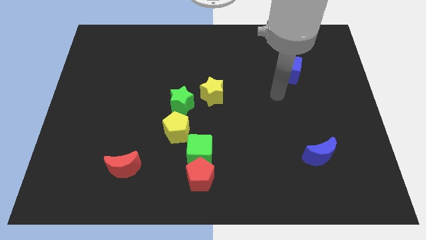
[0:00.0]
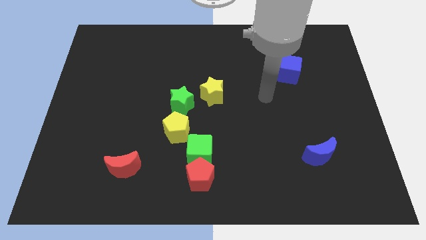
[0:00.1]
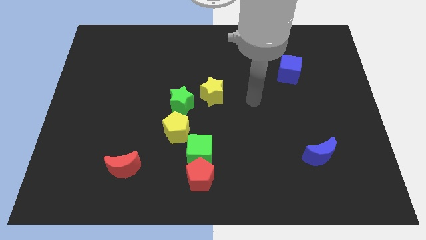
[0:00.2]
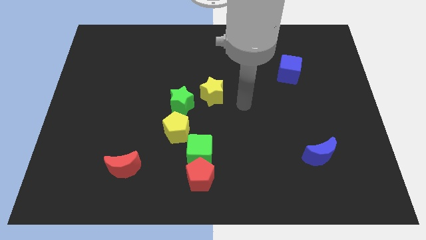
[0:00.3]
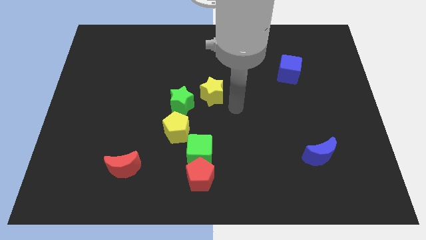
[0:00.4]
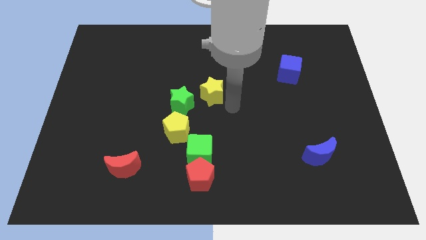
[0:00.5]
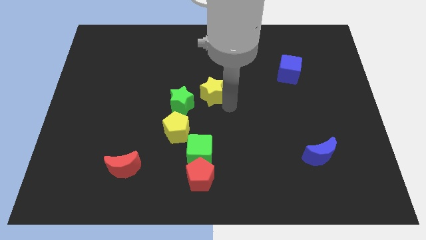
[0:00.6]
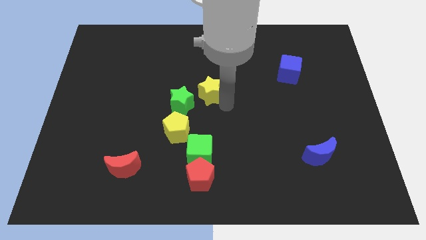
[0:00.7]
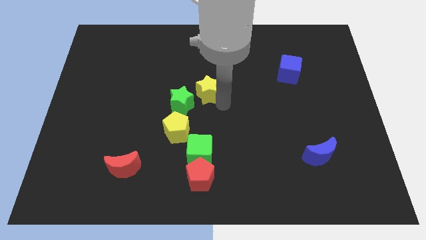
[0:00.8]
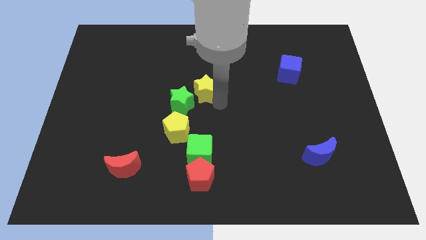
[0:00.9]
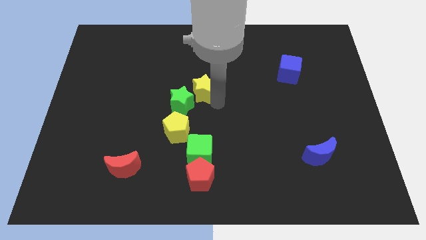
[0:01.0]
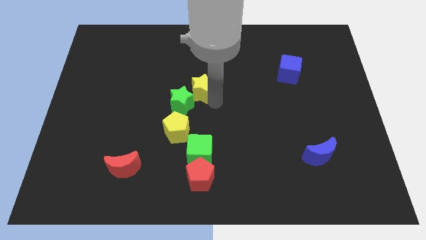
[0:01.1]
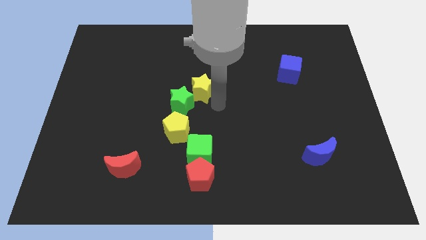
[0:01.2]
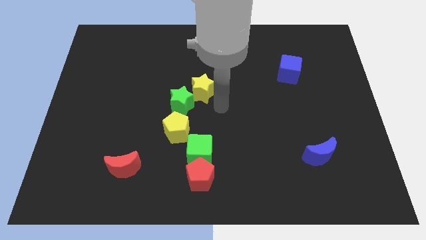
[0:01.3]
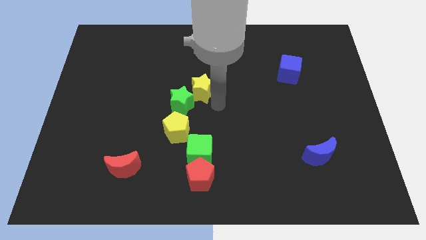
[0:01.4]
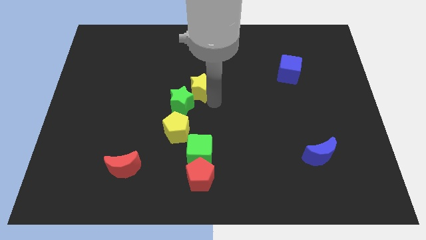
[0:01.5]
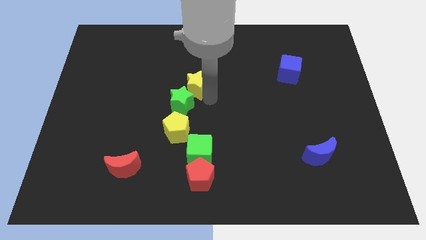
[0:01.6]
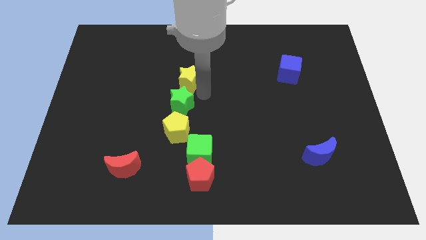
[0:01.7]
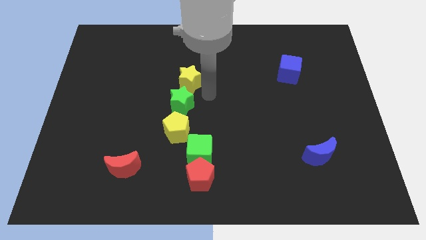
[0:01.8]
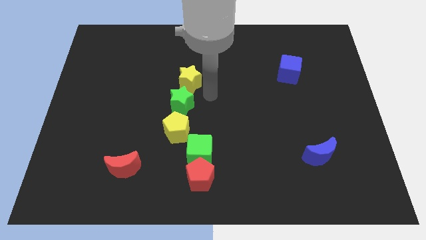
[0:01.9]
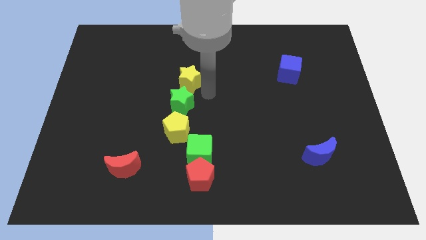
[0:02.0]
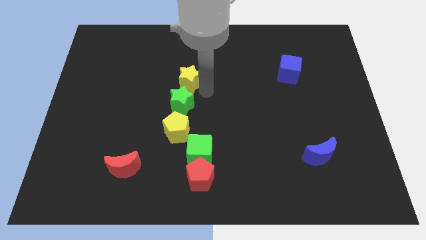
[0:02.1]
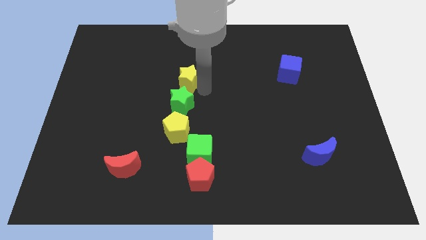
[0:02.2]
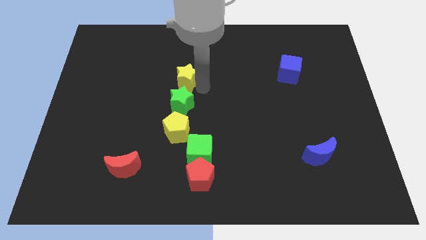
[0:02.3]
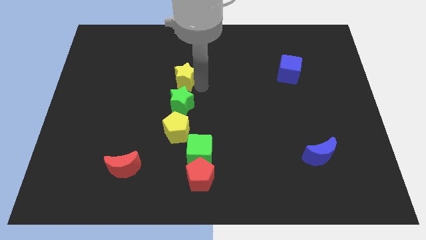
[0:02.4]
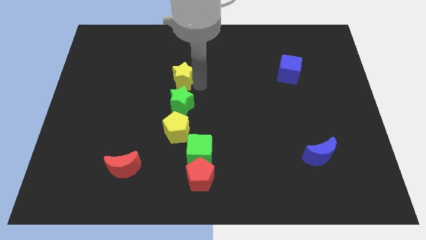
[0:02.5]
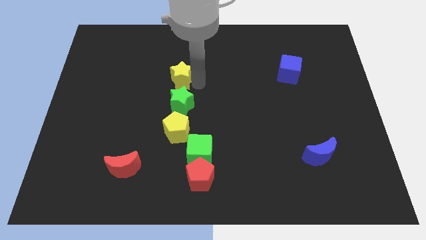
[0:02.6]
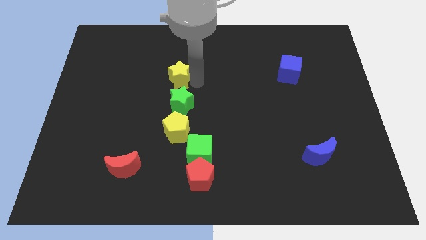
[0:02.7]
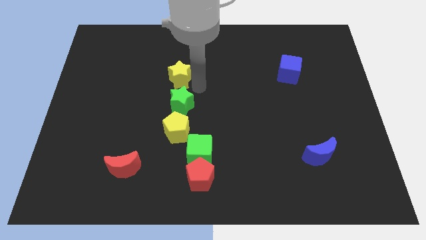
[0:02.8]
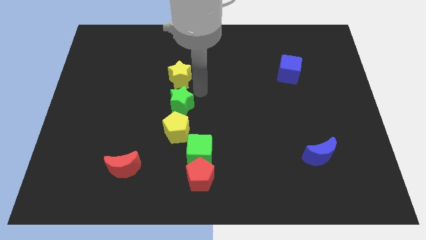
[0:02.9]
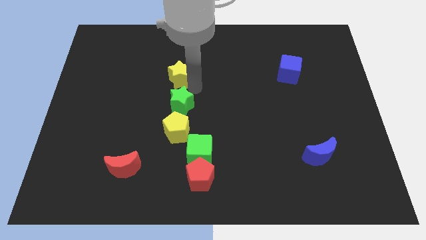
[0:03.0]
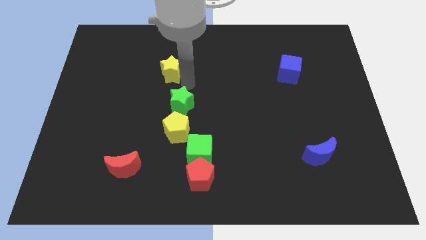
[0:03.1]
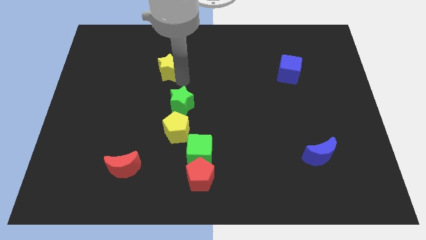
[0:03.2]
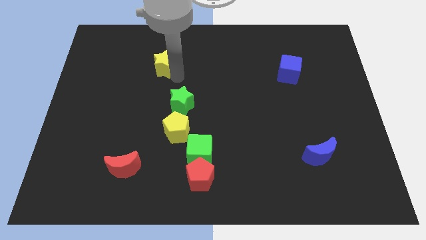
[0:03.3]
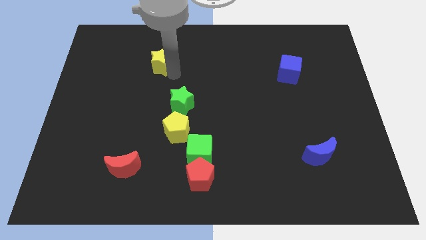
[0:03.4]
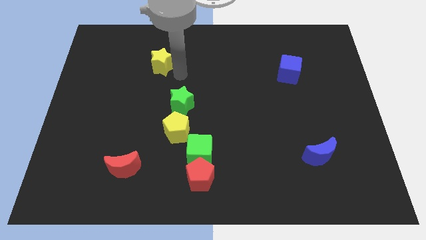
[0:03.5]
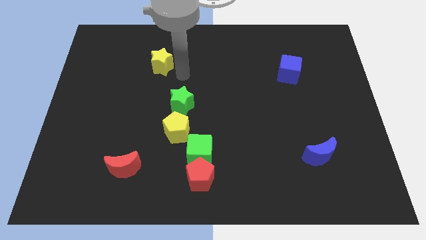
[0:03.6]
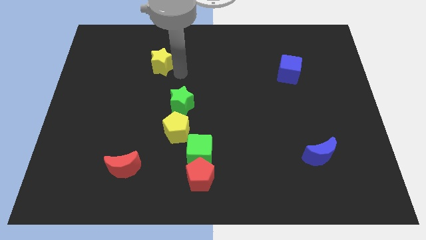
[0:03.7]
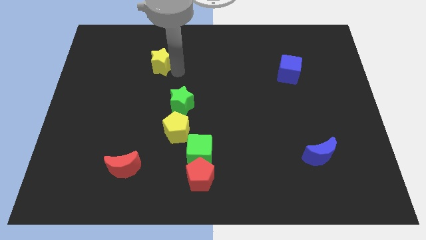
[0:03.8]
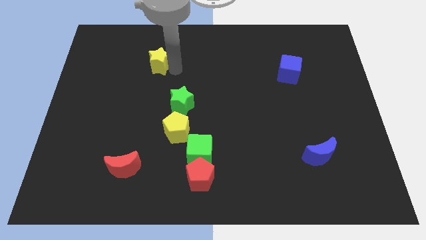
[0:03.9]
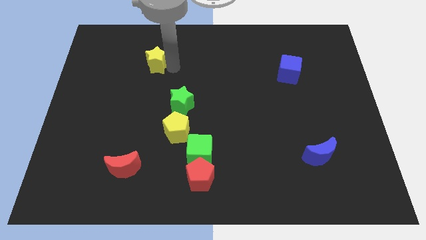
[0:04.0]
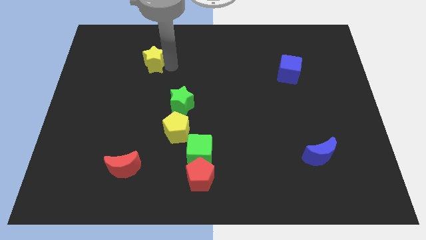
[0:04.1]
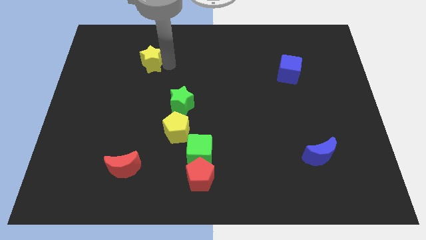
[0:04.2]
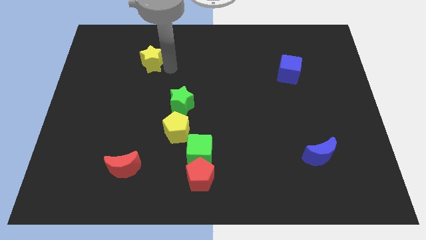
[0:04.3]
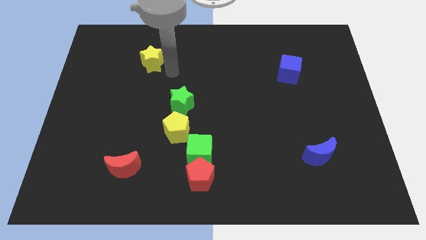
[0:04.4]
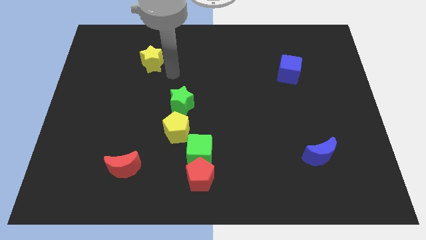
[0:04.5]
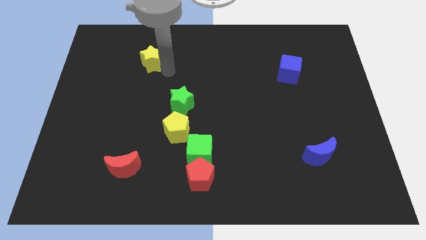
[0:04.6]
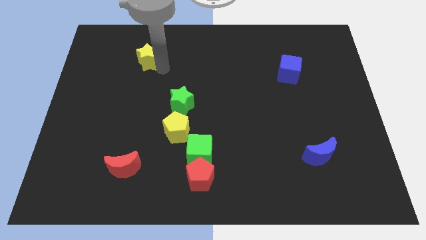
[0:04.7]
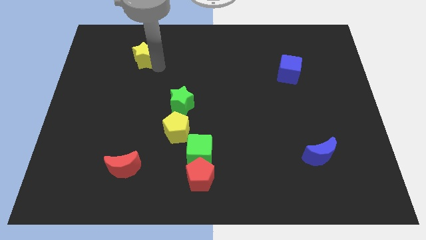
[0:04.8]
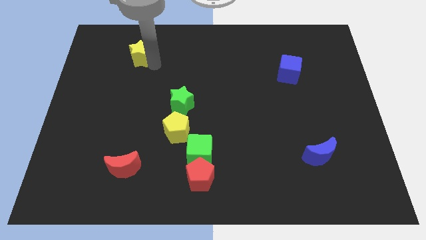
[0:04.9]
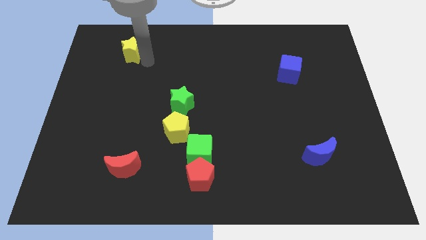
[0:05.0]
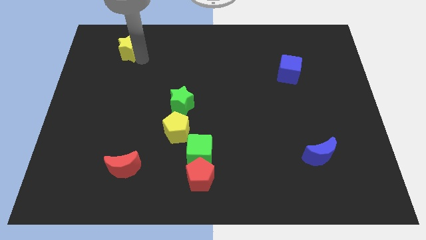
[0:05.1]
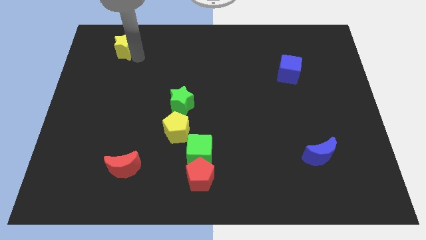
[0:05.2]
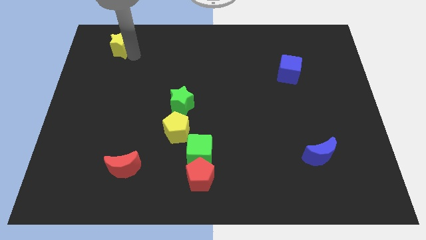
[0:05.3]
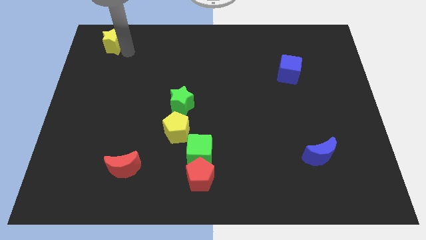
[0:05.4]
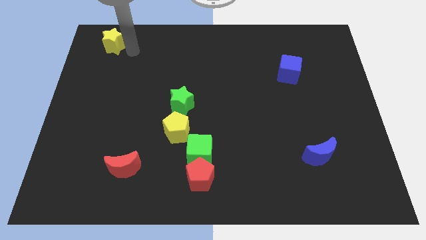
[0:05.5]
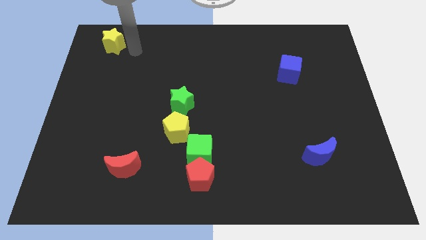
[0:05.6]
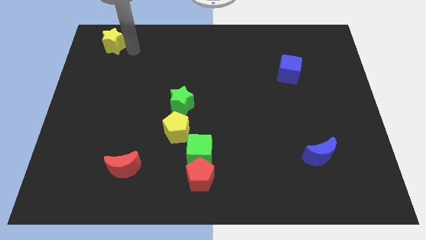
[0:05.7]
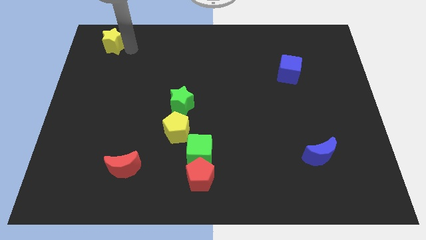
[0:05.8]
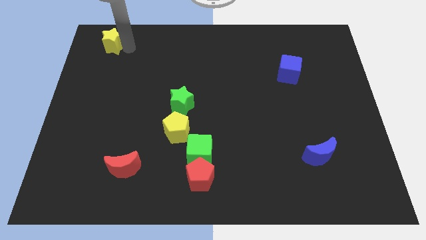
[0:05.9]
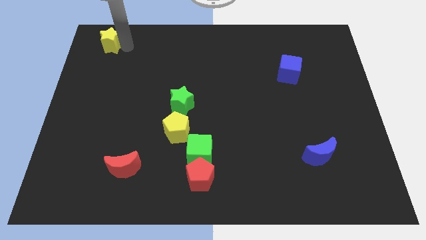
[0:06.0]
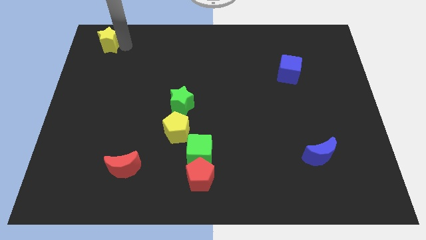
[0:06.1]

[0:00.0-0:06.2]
push the yellow star to the top left of the board

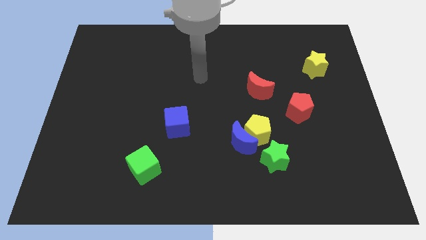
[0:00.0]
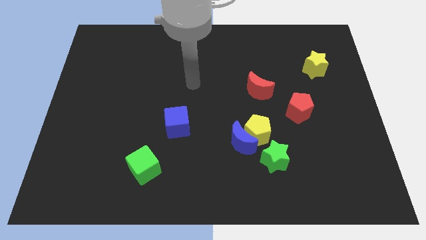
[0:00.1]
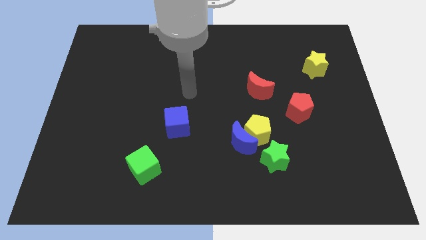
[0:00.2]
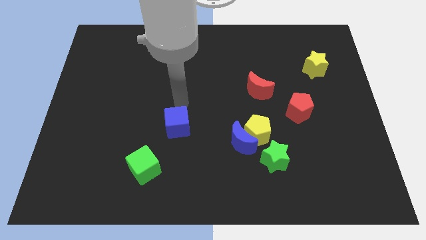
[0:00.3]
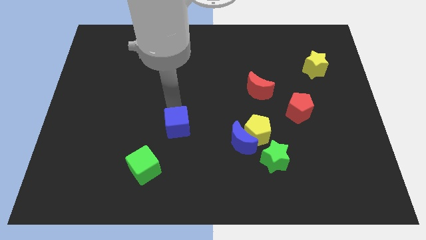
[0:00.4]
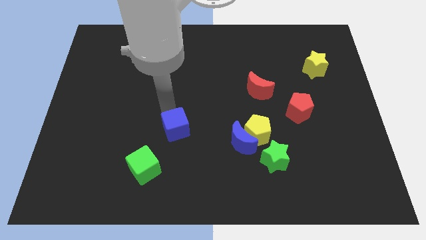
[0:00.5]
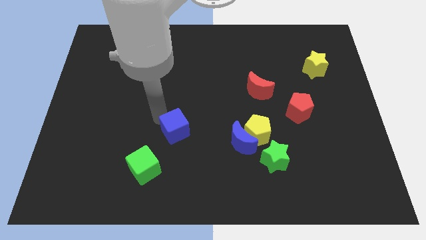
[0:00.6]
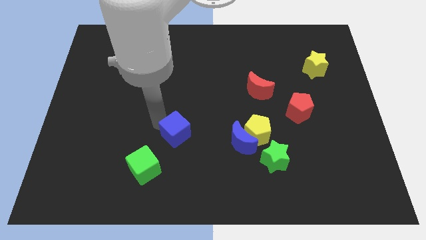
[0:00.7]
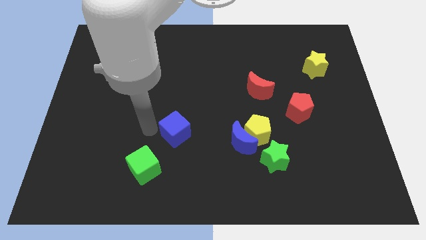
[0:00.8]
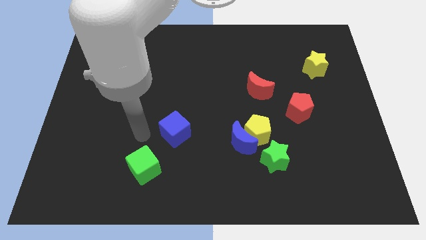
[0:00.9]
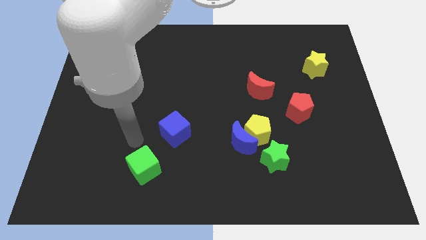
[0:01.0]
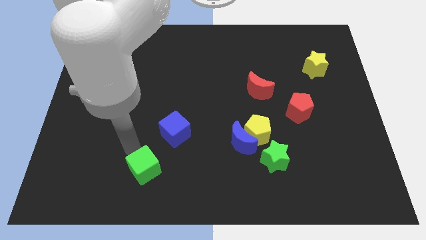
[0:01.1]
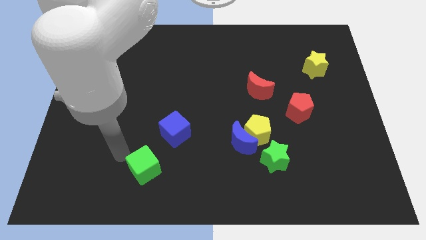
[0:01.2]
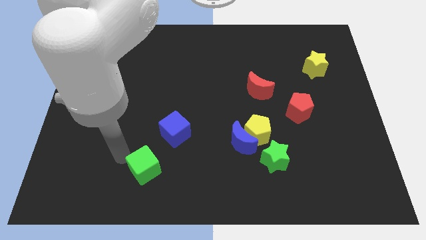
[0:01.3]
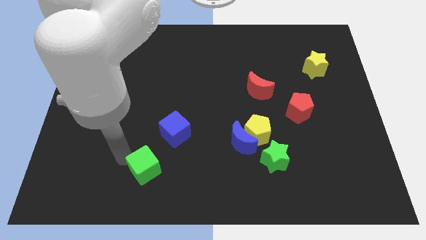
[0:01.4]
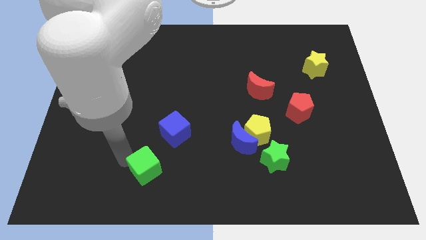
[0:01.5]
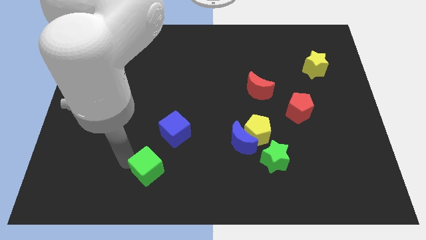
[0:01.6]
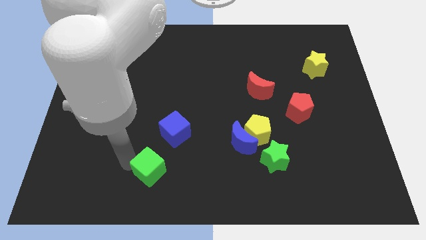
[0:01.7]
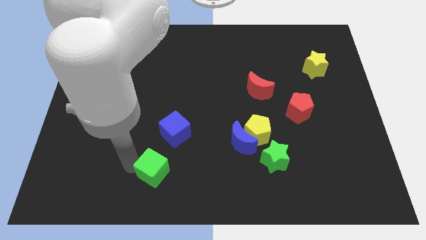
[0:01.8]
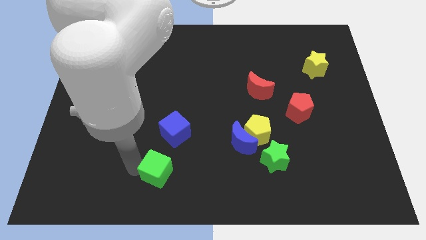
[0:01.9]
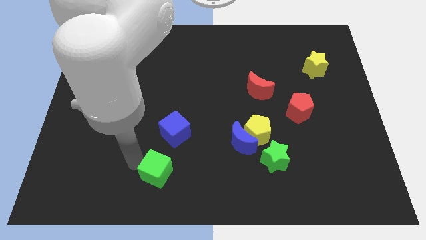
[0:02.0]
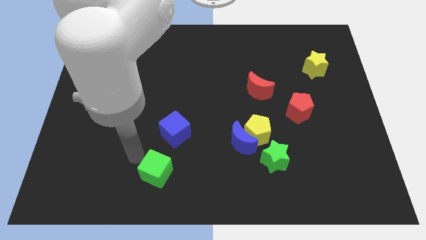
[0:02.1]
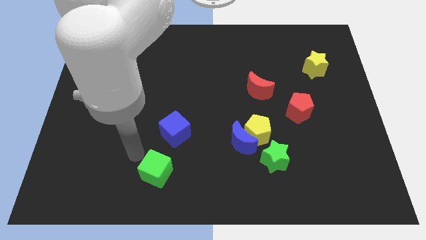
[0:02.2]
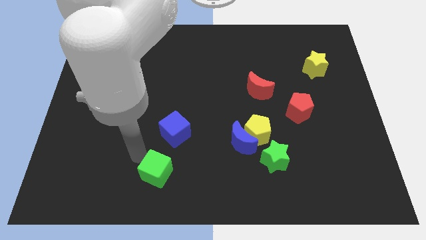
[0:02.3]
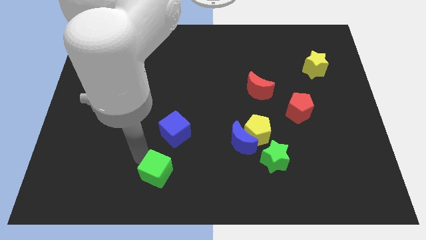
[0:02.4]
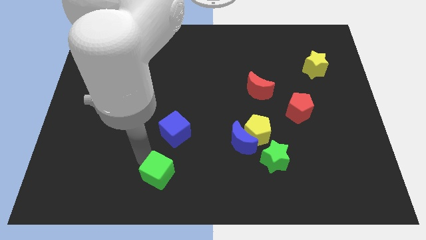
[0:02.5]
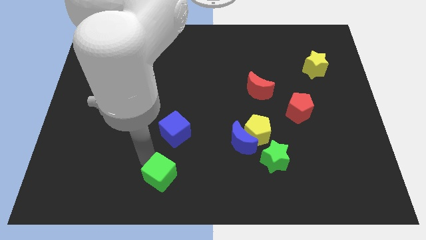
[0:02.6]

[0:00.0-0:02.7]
move the green cube to the bottom side
